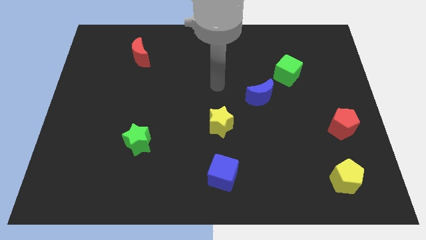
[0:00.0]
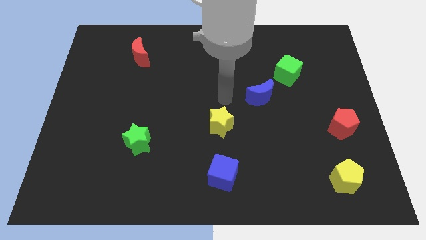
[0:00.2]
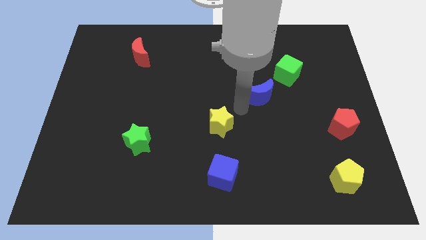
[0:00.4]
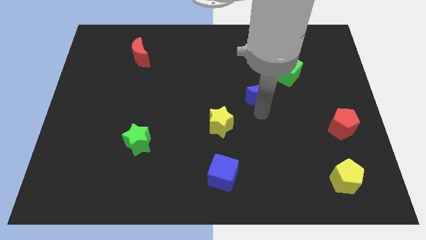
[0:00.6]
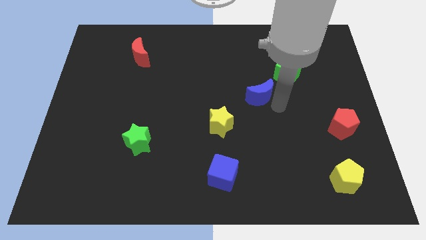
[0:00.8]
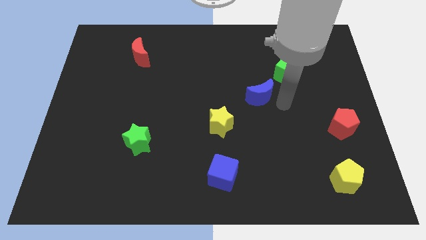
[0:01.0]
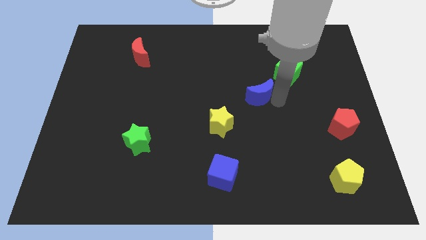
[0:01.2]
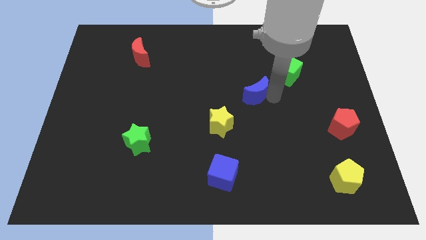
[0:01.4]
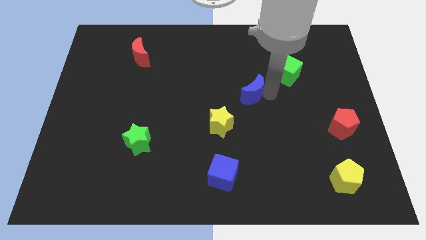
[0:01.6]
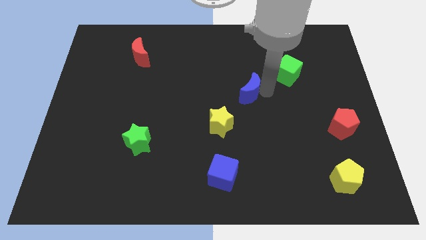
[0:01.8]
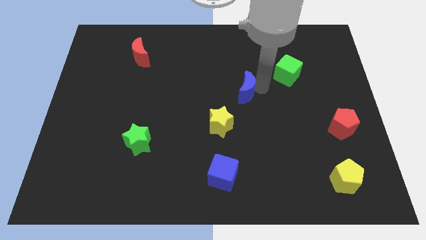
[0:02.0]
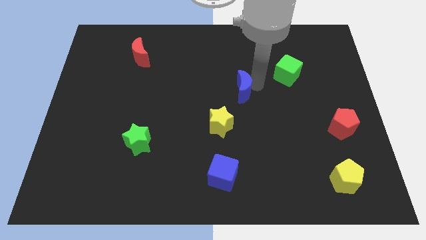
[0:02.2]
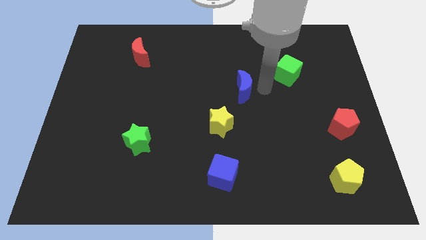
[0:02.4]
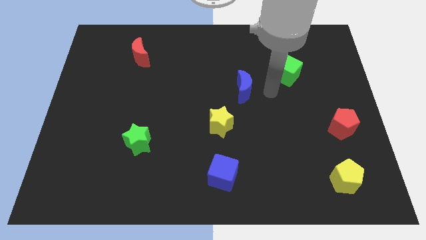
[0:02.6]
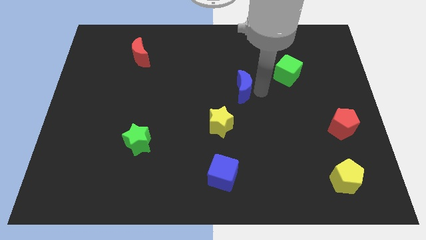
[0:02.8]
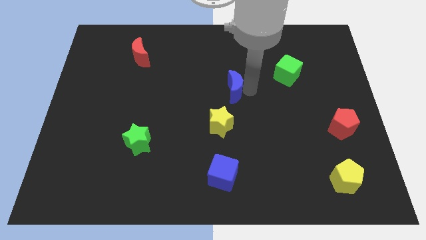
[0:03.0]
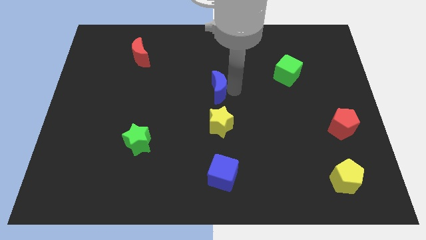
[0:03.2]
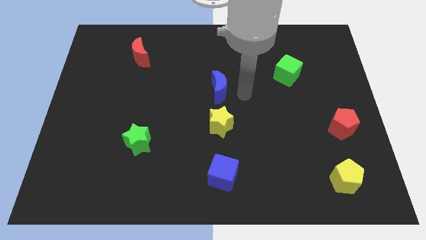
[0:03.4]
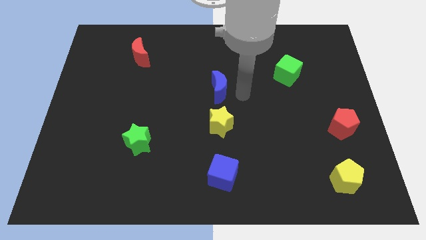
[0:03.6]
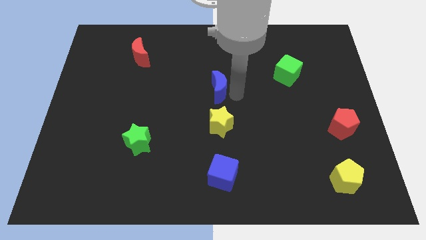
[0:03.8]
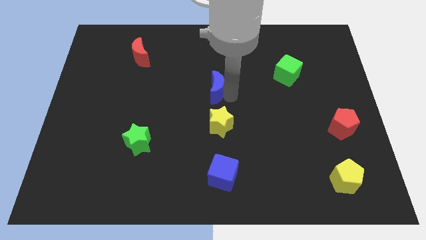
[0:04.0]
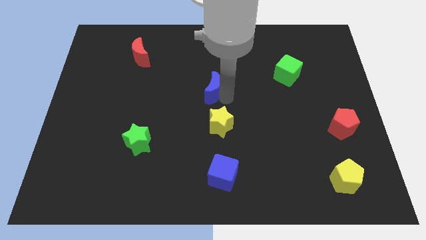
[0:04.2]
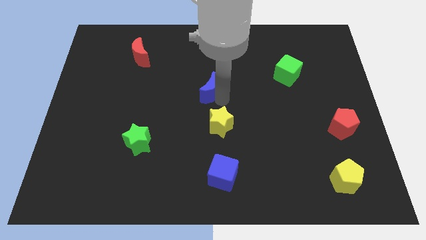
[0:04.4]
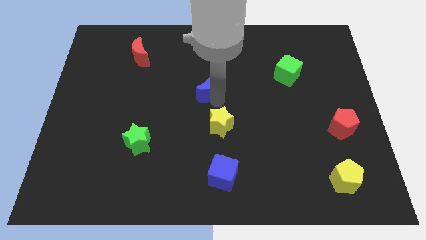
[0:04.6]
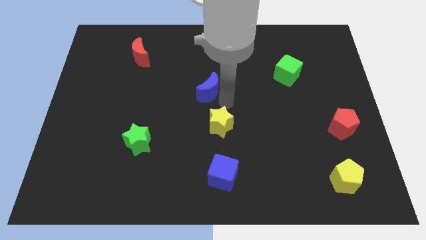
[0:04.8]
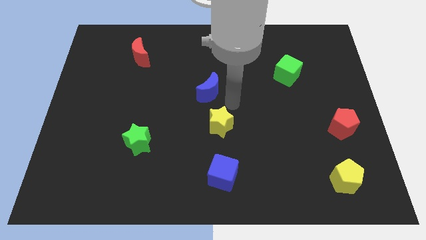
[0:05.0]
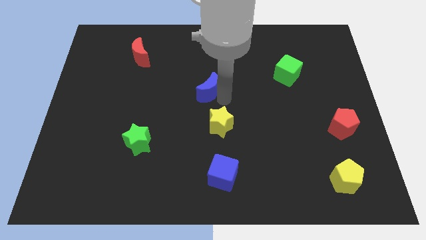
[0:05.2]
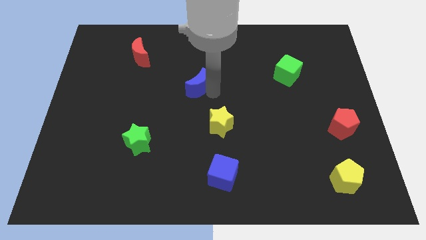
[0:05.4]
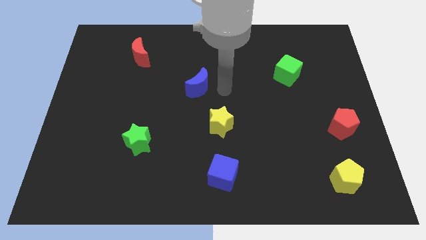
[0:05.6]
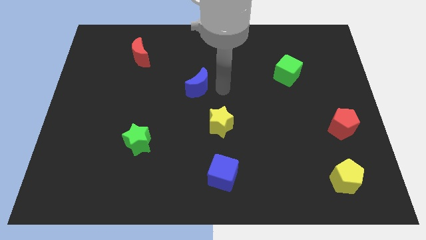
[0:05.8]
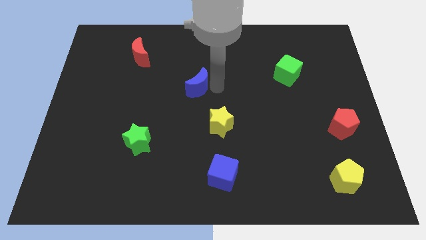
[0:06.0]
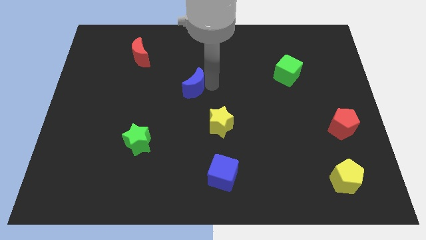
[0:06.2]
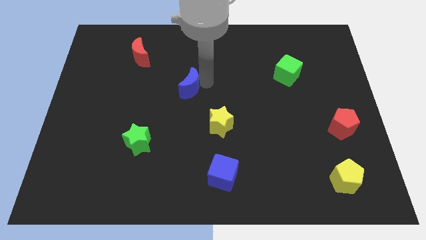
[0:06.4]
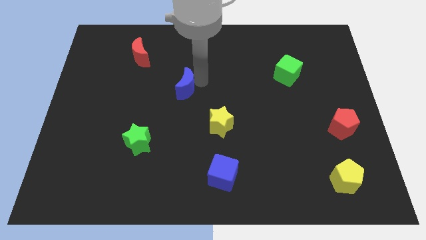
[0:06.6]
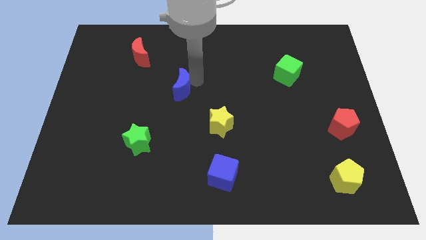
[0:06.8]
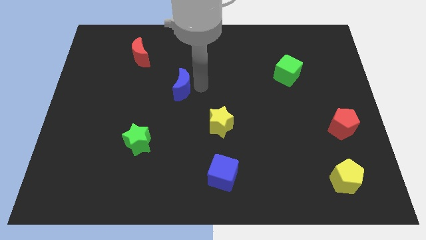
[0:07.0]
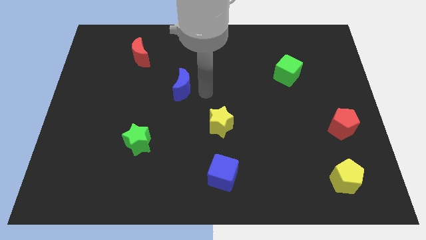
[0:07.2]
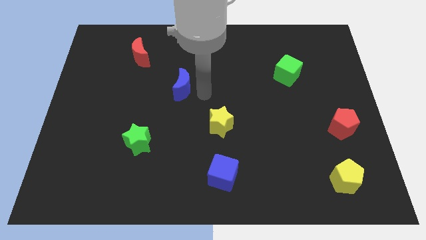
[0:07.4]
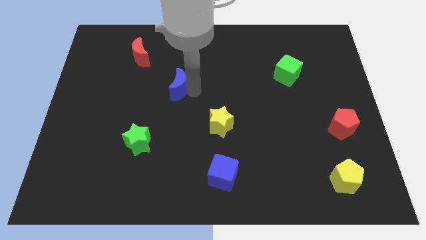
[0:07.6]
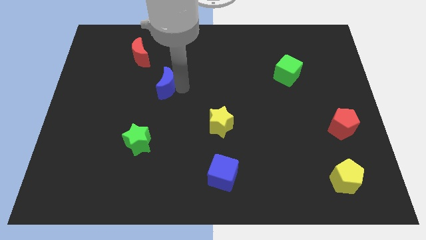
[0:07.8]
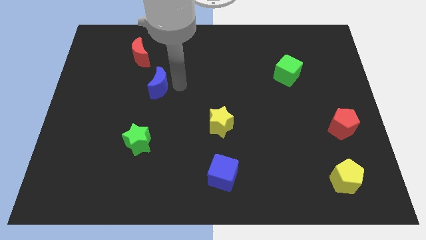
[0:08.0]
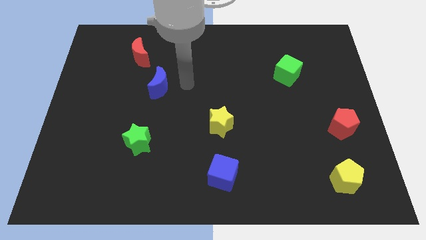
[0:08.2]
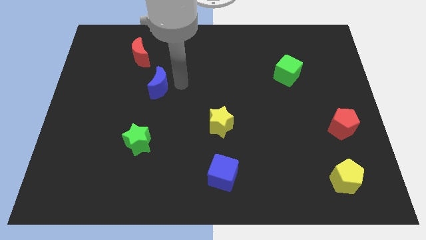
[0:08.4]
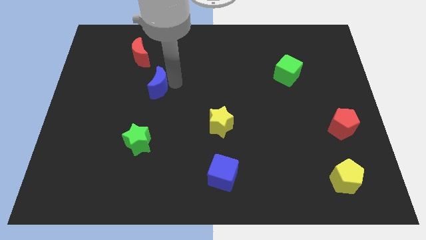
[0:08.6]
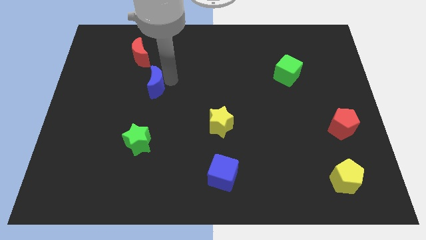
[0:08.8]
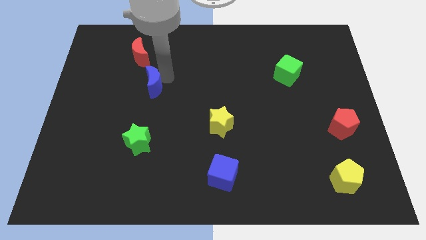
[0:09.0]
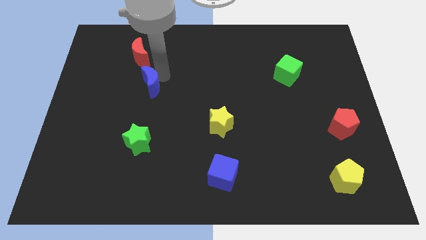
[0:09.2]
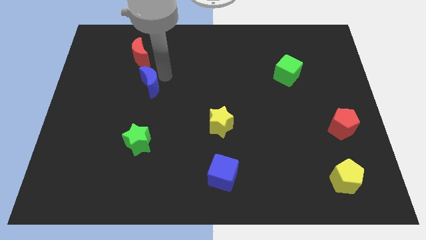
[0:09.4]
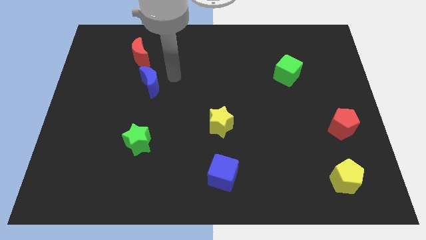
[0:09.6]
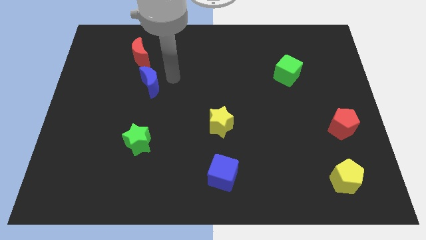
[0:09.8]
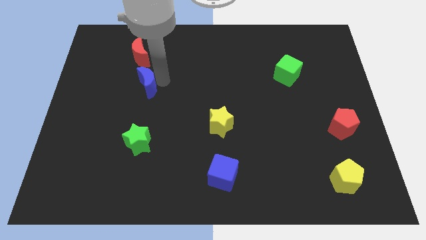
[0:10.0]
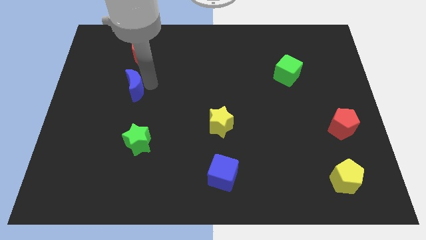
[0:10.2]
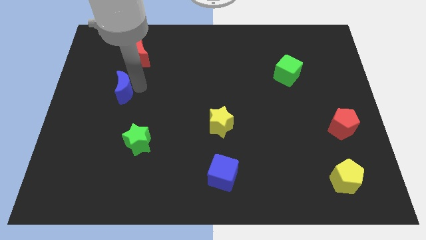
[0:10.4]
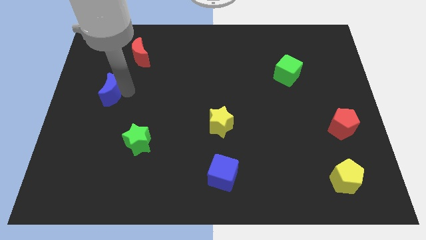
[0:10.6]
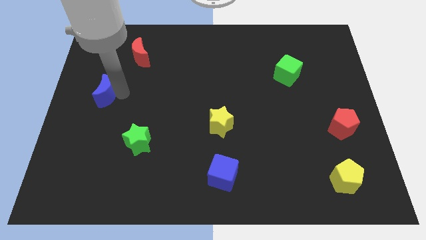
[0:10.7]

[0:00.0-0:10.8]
slide the blue moon to the center left

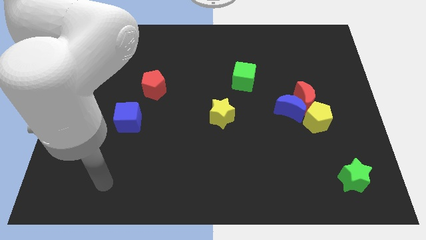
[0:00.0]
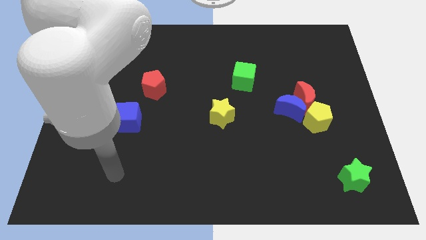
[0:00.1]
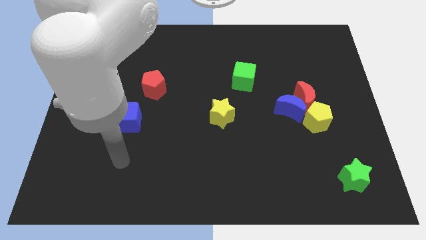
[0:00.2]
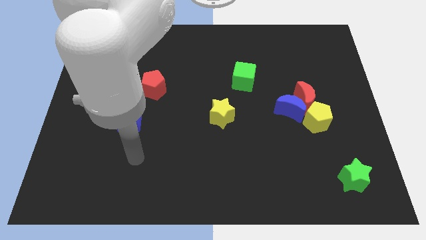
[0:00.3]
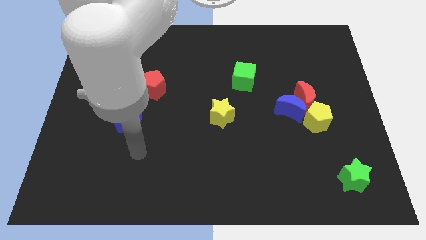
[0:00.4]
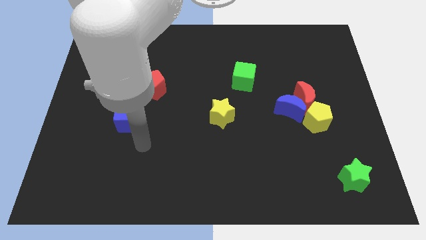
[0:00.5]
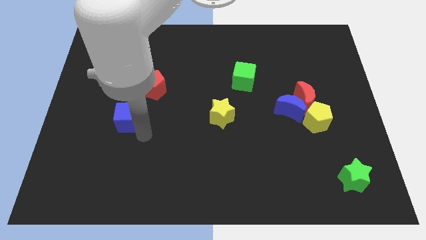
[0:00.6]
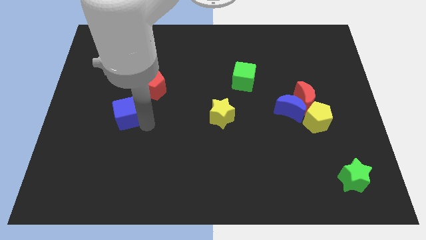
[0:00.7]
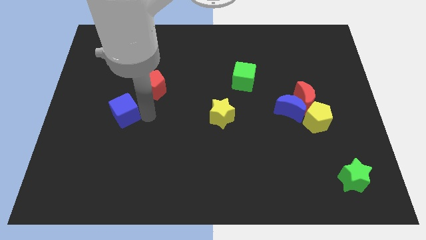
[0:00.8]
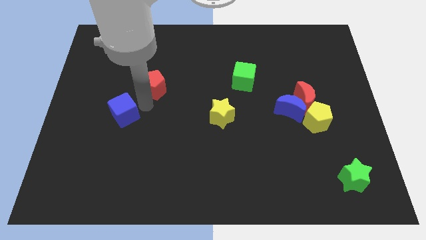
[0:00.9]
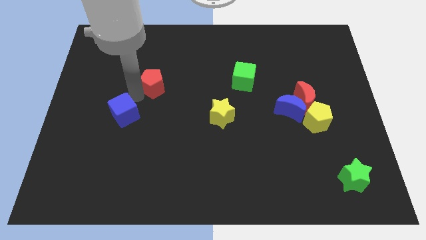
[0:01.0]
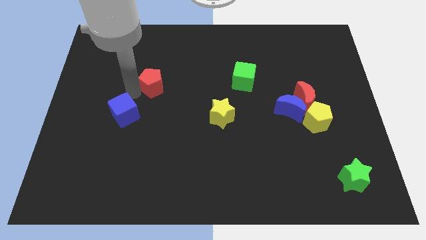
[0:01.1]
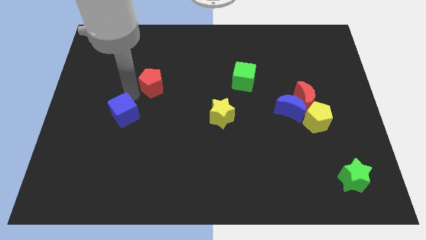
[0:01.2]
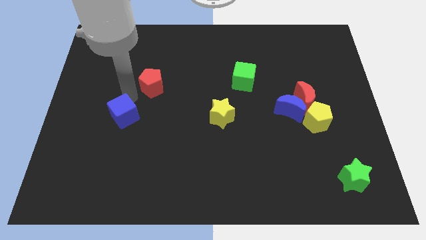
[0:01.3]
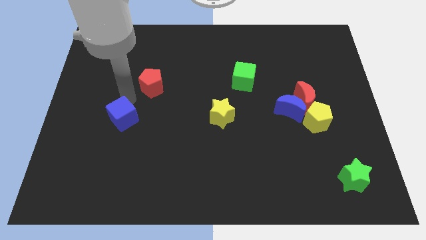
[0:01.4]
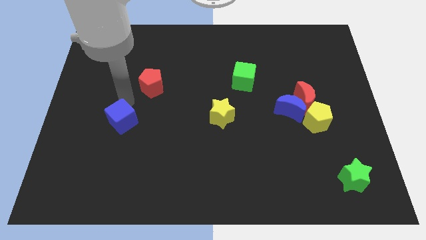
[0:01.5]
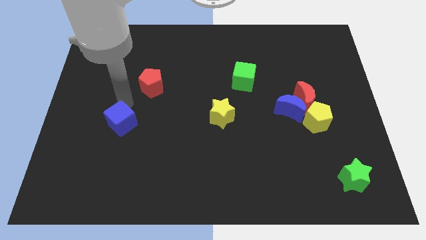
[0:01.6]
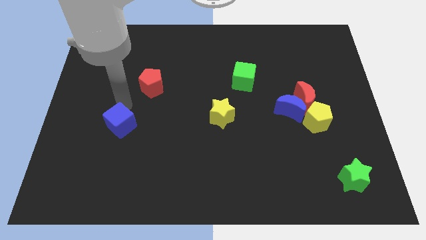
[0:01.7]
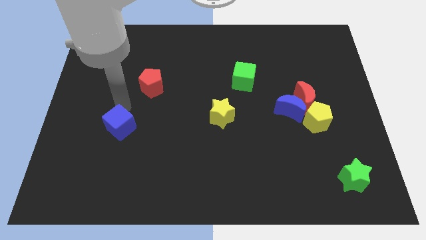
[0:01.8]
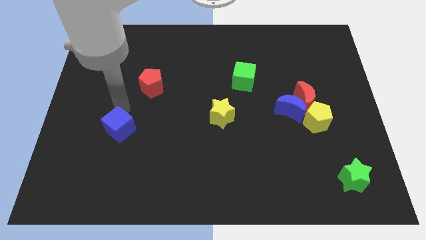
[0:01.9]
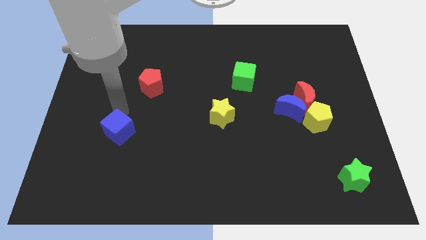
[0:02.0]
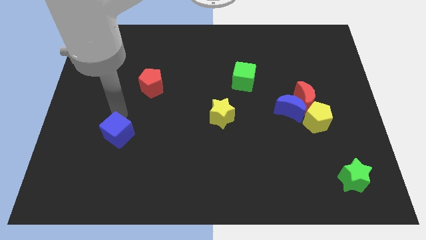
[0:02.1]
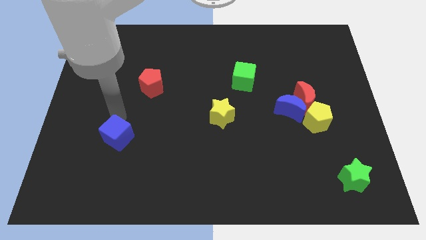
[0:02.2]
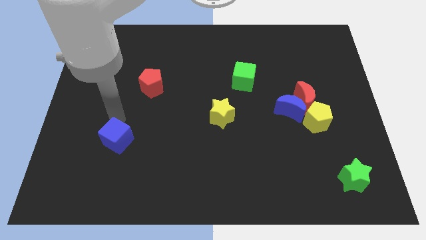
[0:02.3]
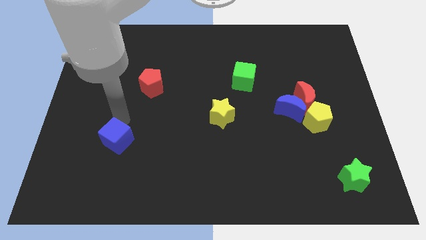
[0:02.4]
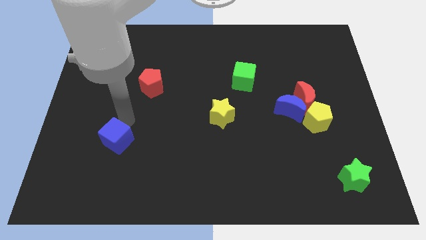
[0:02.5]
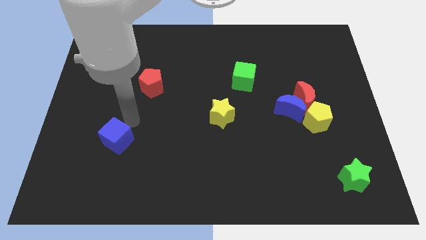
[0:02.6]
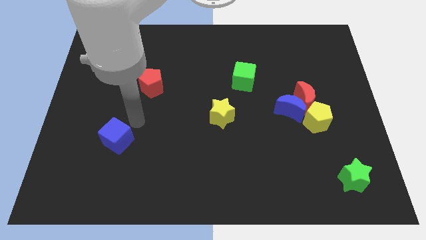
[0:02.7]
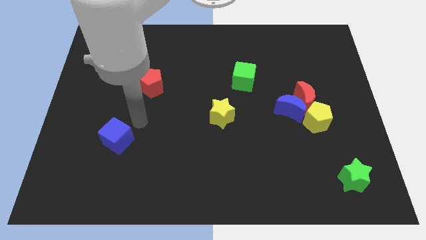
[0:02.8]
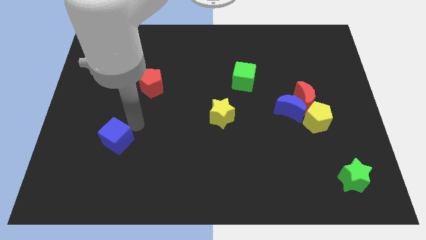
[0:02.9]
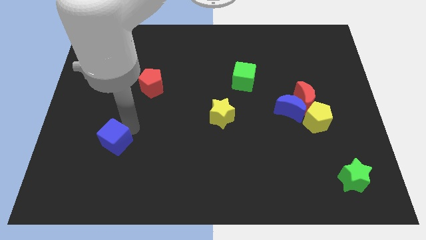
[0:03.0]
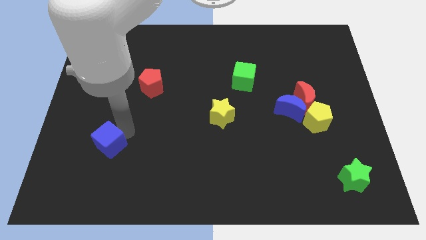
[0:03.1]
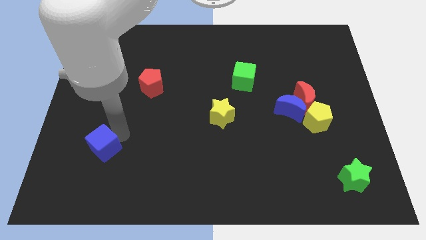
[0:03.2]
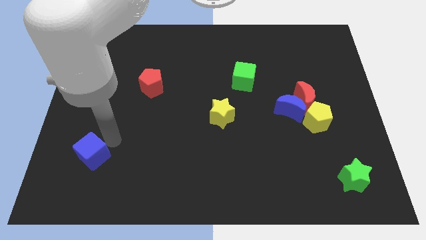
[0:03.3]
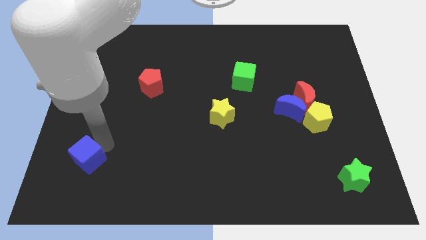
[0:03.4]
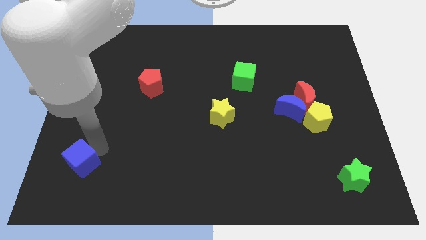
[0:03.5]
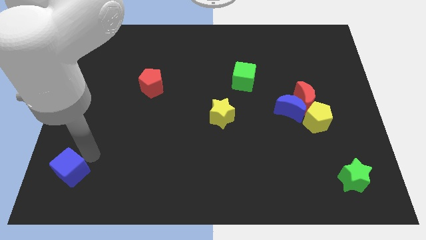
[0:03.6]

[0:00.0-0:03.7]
put the blue cube to the bottom left of the board
